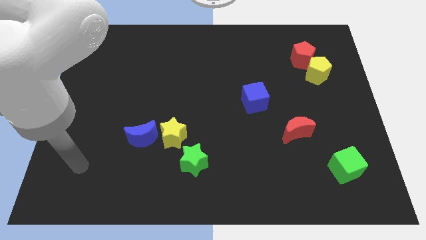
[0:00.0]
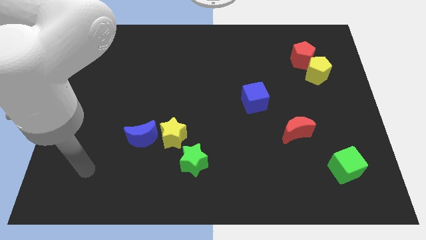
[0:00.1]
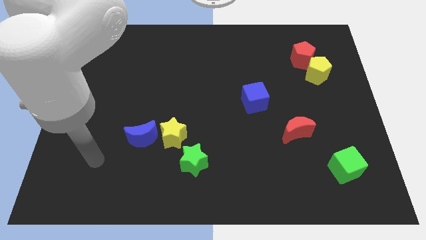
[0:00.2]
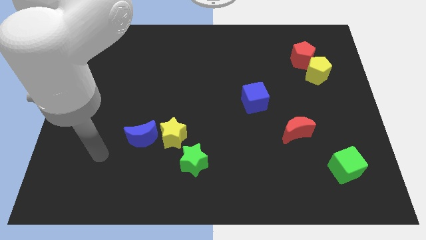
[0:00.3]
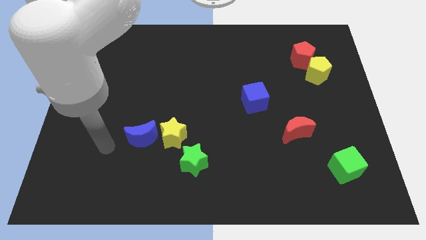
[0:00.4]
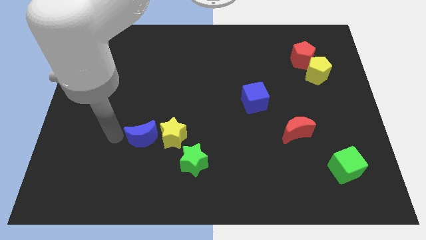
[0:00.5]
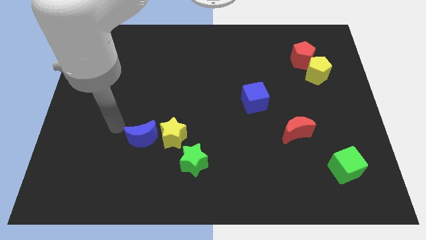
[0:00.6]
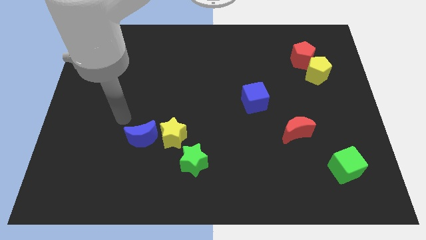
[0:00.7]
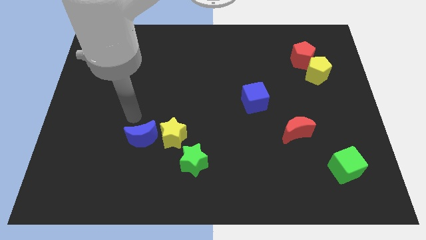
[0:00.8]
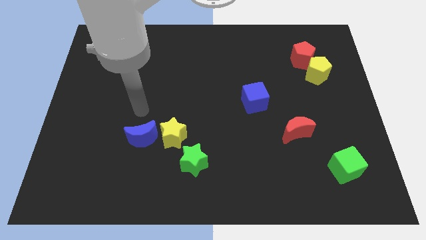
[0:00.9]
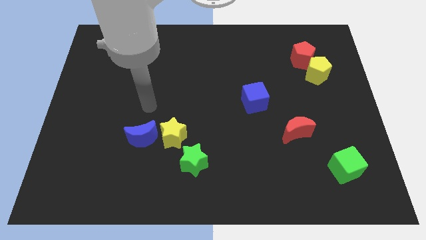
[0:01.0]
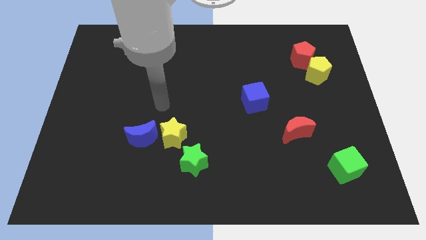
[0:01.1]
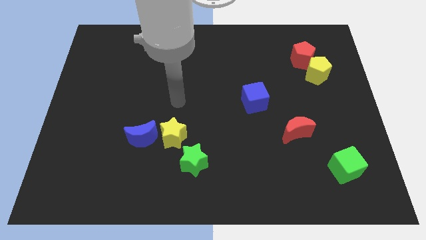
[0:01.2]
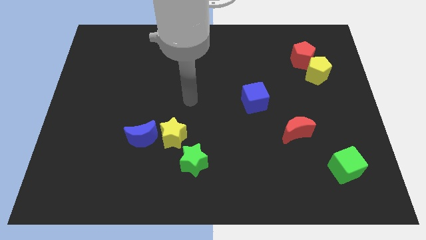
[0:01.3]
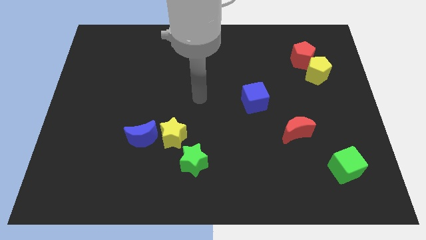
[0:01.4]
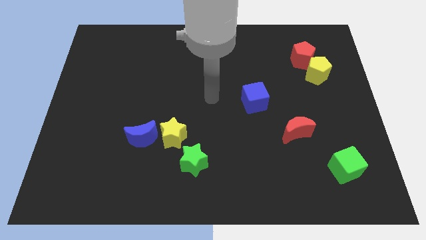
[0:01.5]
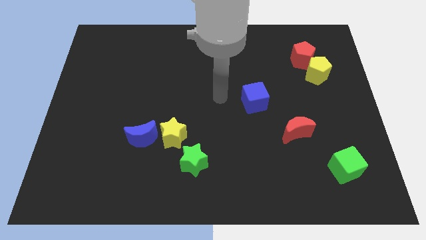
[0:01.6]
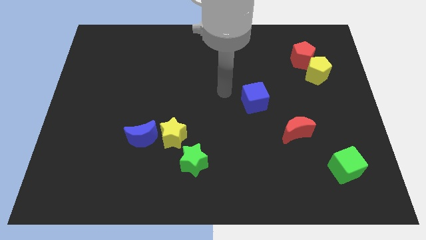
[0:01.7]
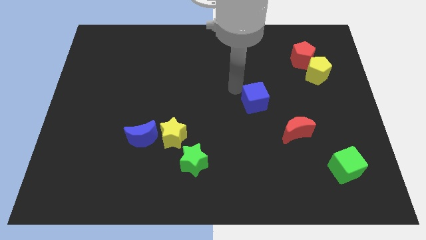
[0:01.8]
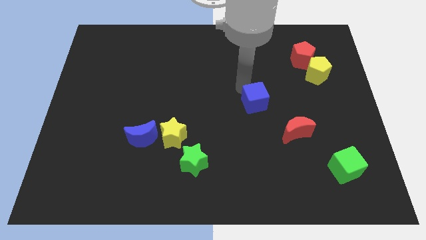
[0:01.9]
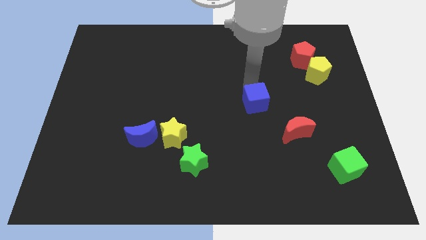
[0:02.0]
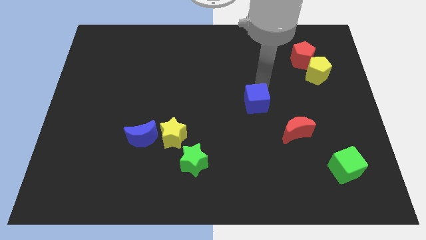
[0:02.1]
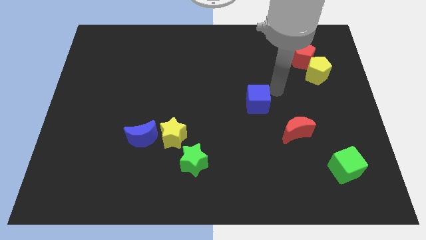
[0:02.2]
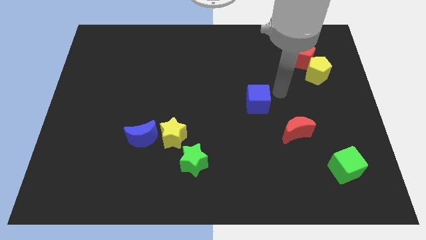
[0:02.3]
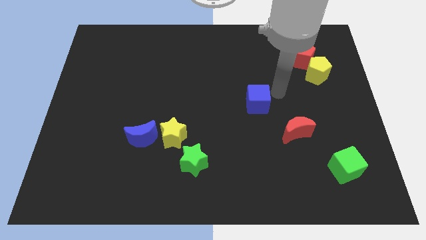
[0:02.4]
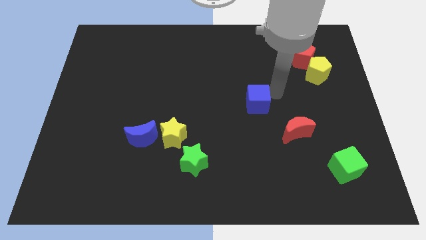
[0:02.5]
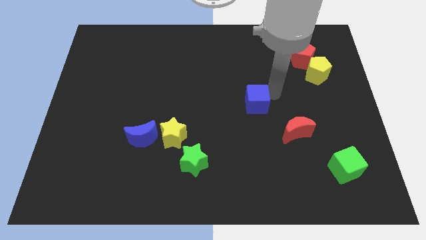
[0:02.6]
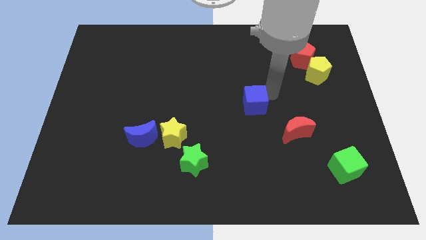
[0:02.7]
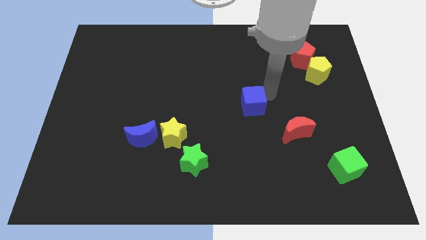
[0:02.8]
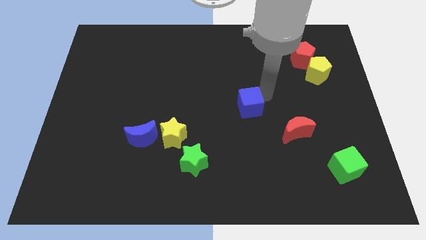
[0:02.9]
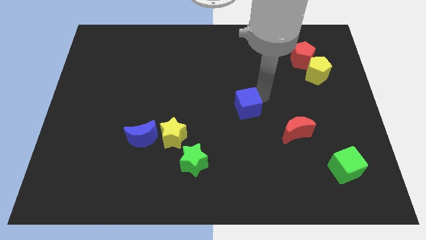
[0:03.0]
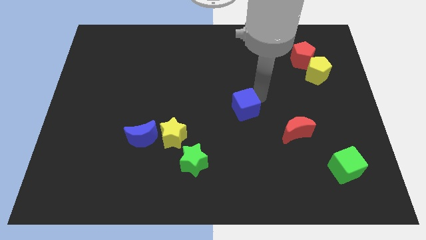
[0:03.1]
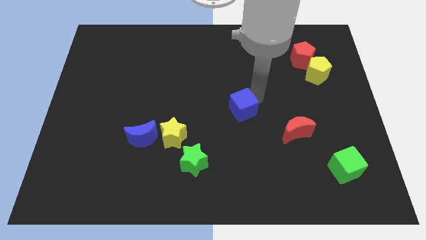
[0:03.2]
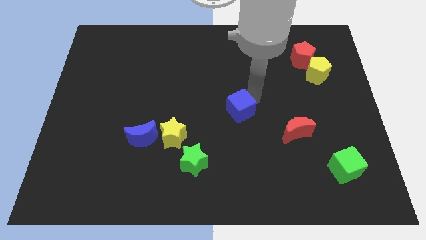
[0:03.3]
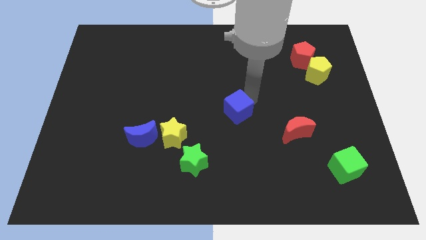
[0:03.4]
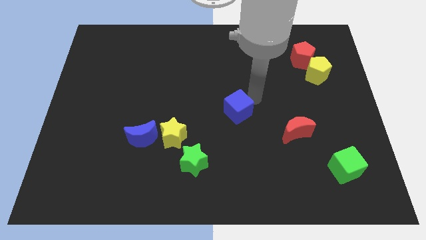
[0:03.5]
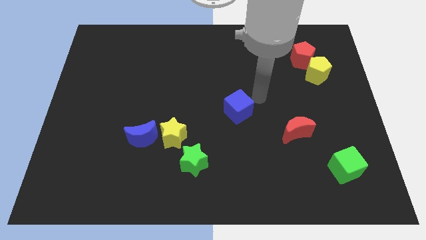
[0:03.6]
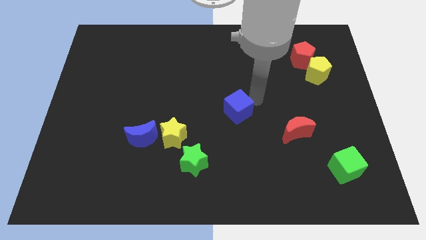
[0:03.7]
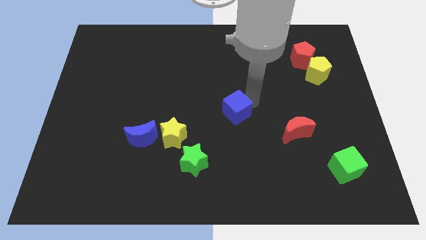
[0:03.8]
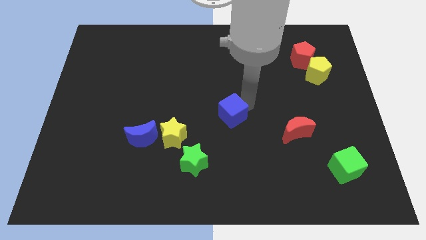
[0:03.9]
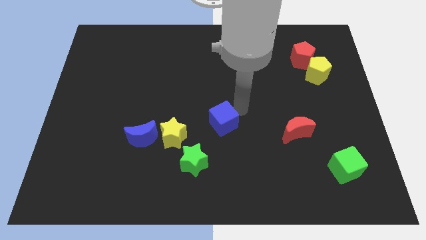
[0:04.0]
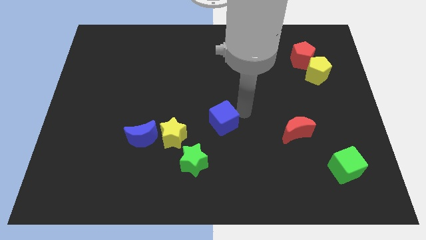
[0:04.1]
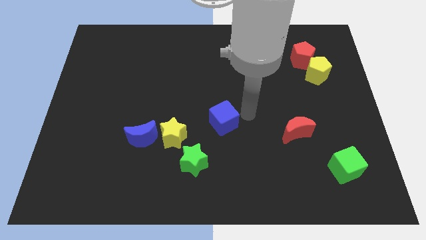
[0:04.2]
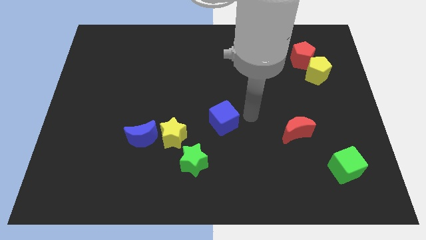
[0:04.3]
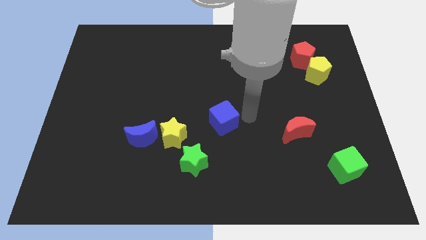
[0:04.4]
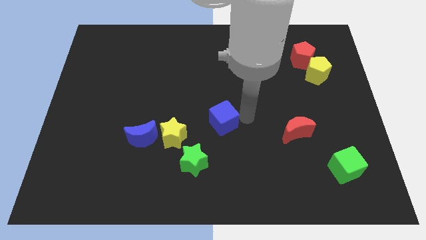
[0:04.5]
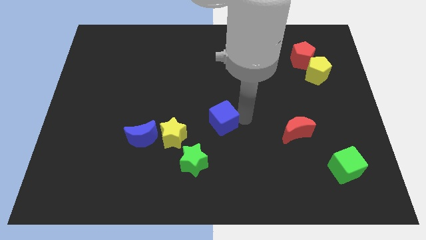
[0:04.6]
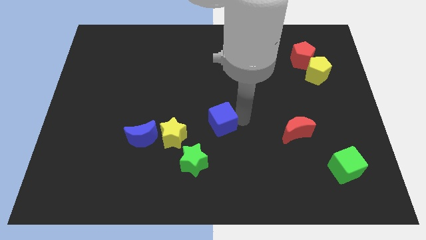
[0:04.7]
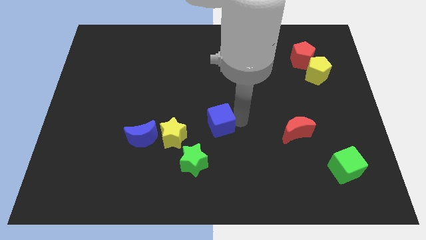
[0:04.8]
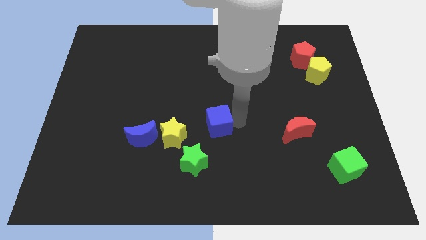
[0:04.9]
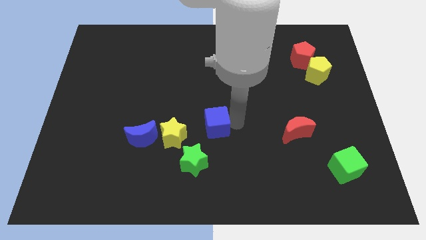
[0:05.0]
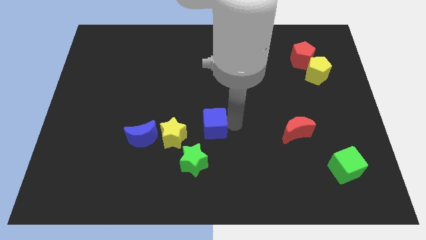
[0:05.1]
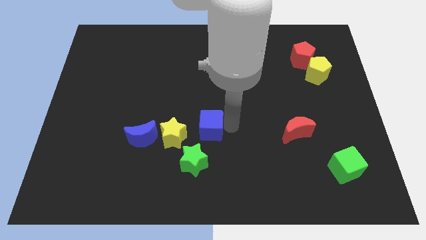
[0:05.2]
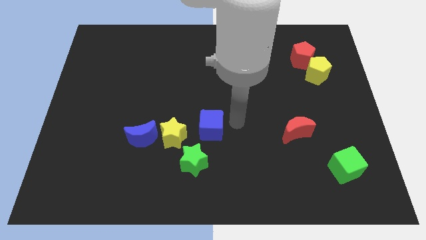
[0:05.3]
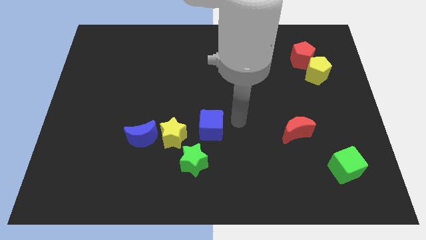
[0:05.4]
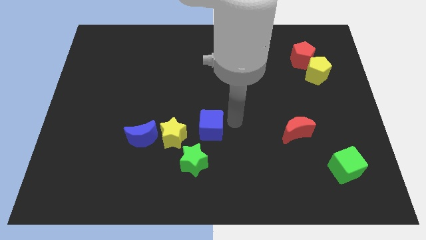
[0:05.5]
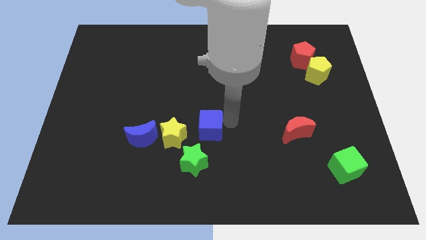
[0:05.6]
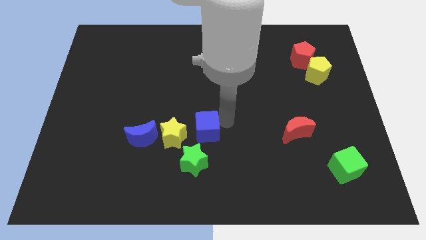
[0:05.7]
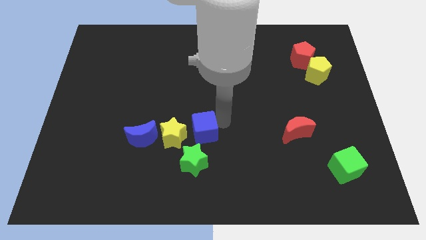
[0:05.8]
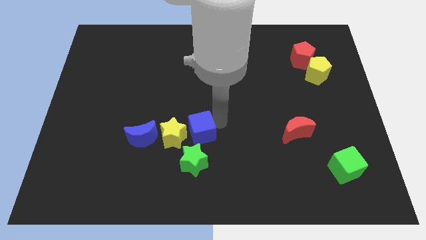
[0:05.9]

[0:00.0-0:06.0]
slide the blue cube to the yellow star

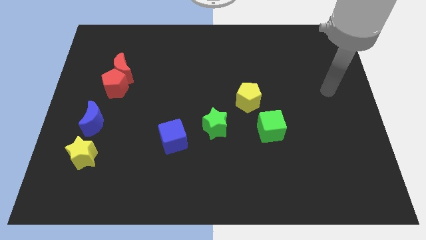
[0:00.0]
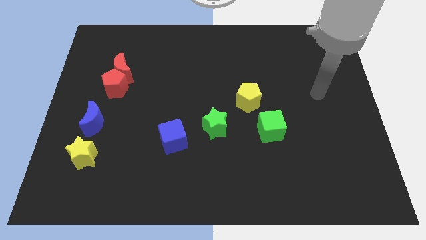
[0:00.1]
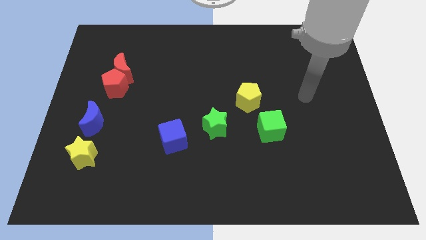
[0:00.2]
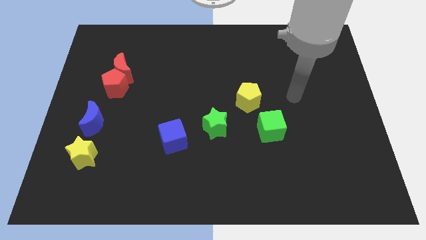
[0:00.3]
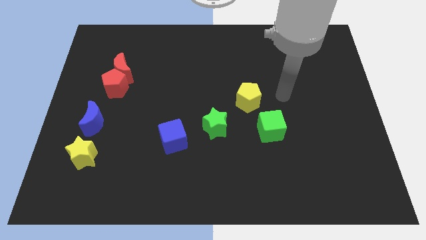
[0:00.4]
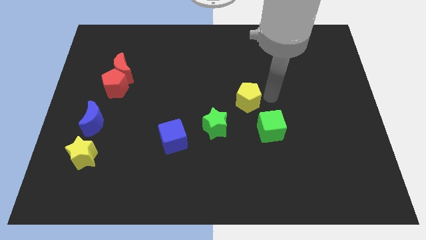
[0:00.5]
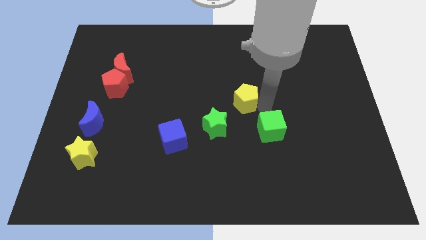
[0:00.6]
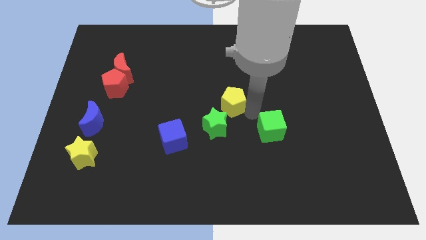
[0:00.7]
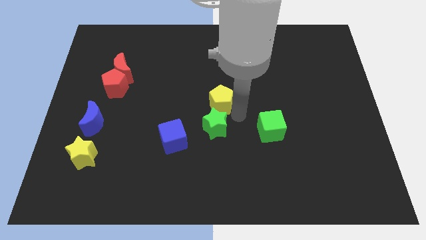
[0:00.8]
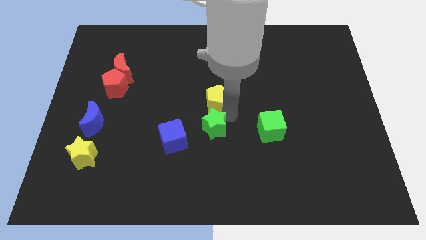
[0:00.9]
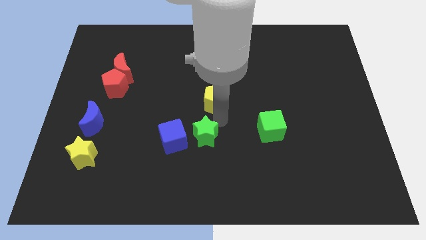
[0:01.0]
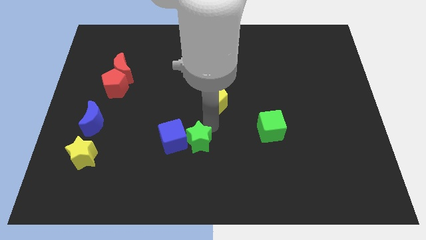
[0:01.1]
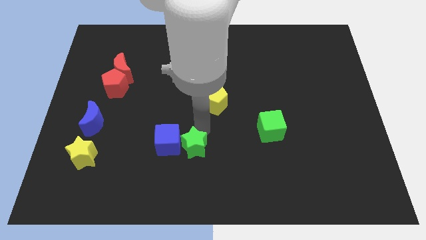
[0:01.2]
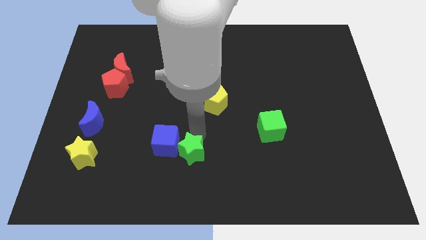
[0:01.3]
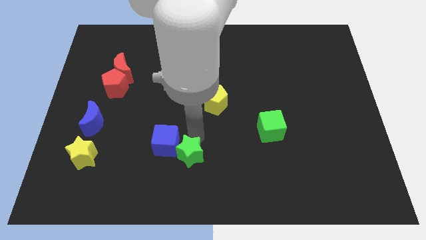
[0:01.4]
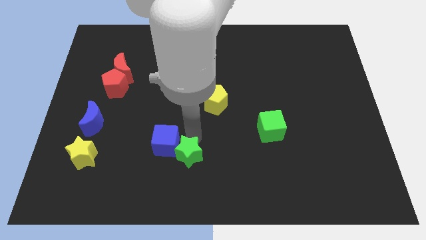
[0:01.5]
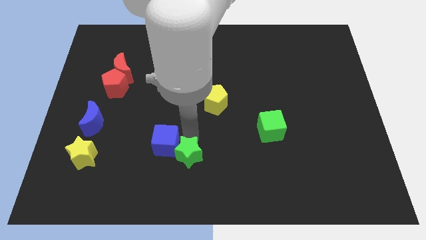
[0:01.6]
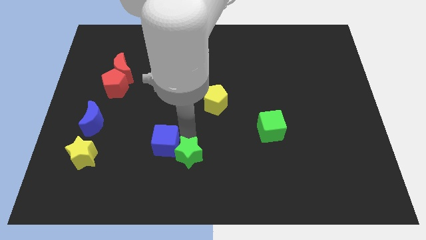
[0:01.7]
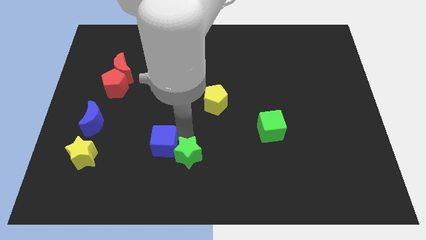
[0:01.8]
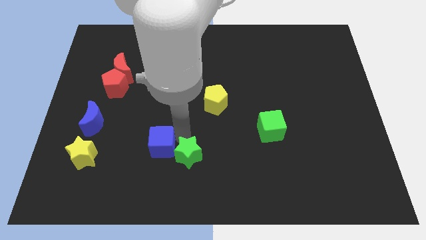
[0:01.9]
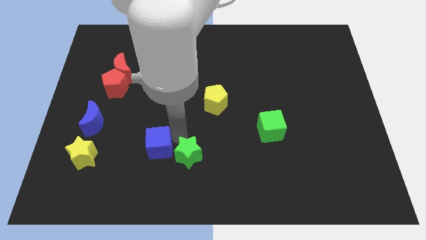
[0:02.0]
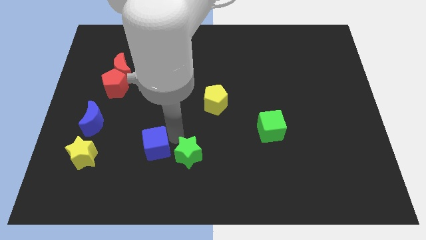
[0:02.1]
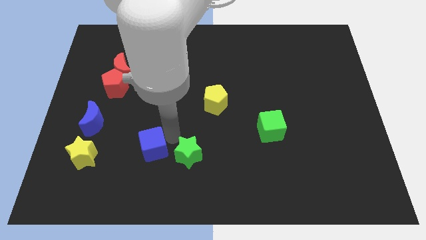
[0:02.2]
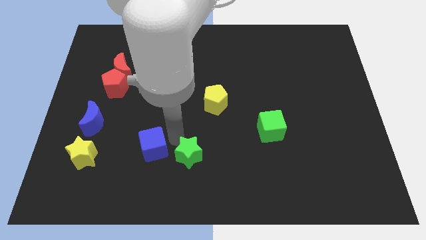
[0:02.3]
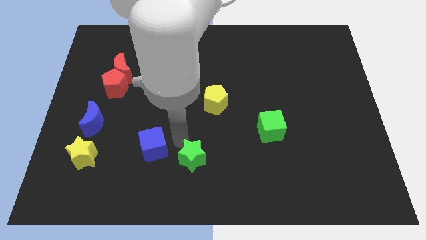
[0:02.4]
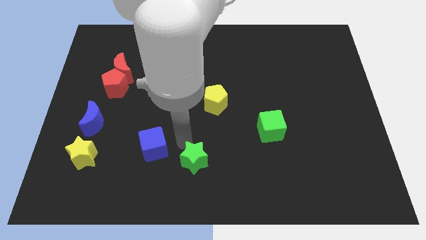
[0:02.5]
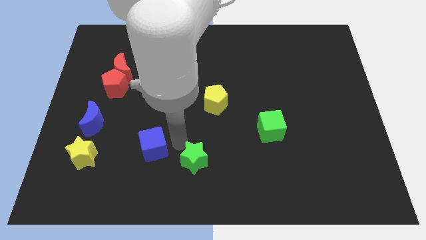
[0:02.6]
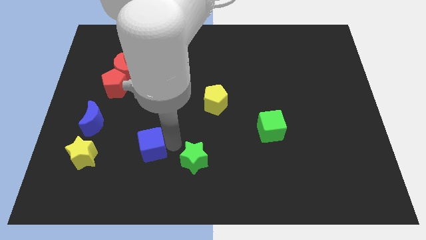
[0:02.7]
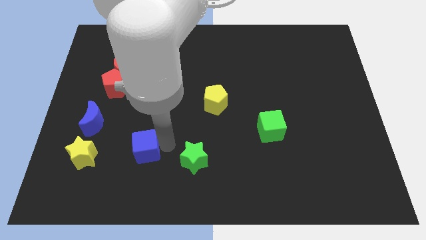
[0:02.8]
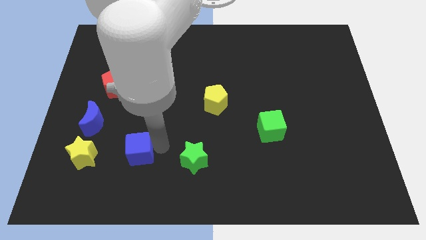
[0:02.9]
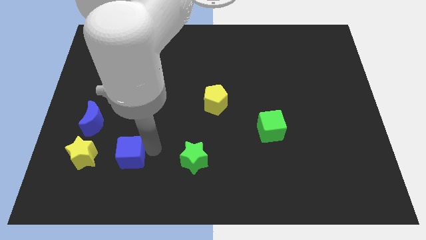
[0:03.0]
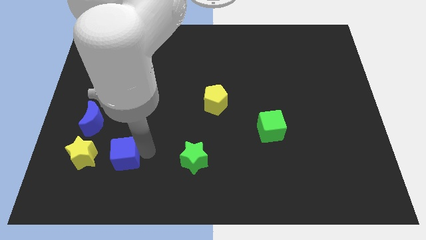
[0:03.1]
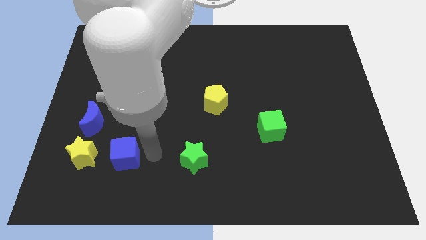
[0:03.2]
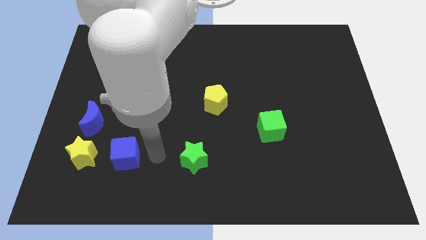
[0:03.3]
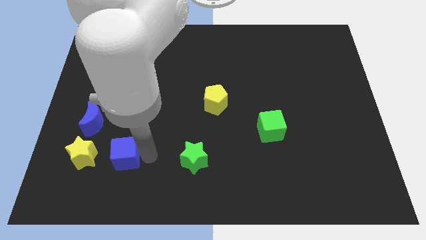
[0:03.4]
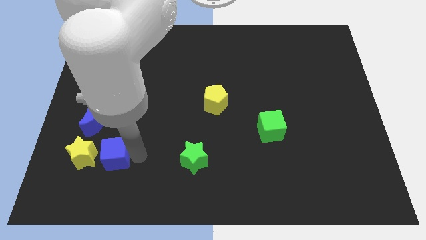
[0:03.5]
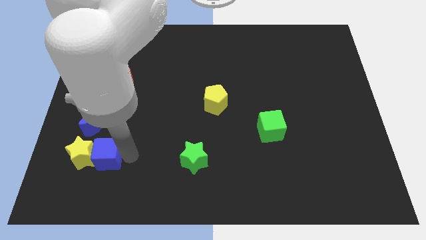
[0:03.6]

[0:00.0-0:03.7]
move the blue cube next to the yellow star
